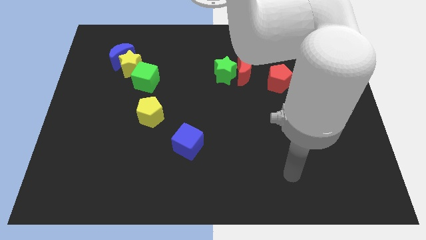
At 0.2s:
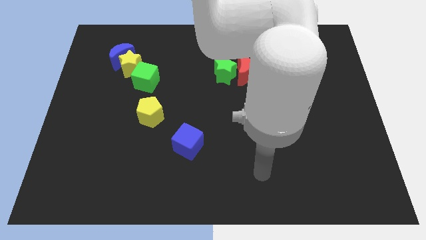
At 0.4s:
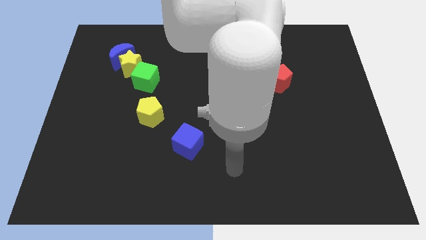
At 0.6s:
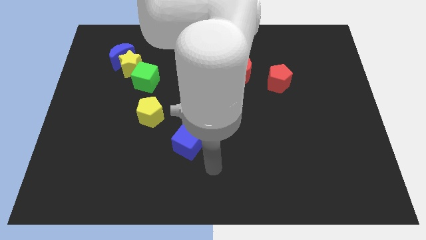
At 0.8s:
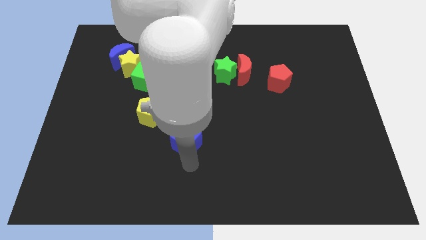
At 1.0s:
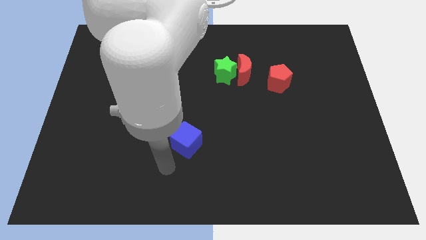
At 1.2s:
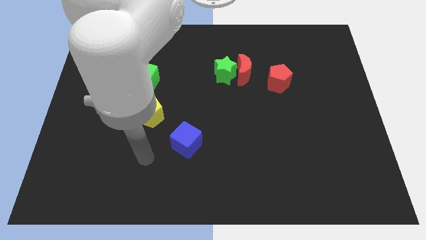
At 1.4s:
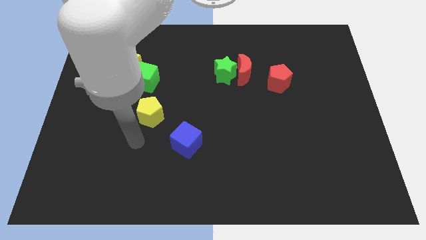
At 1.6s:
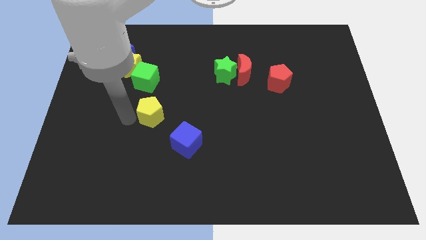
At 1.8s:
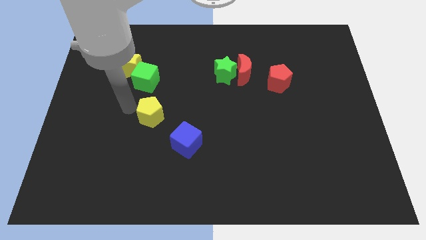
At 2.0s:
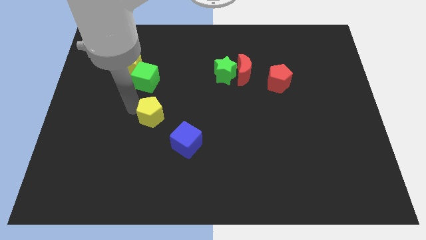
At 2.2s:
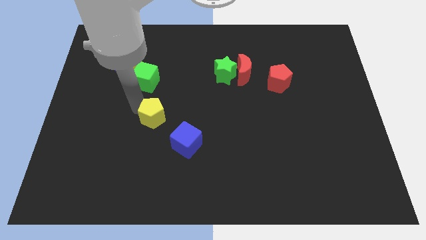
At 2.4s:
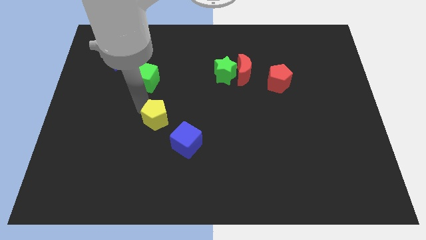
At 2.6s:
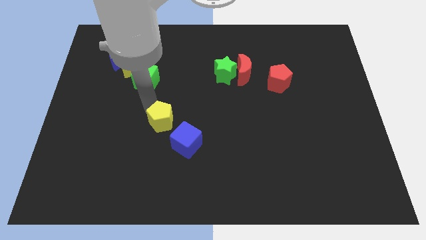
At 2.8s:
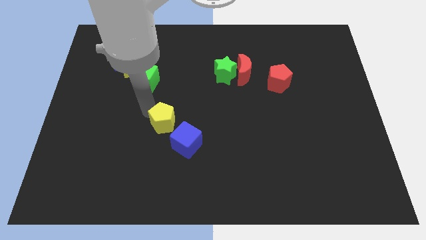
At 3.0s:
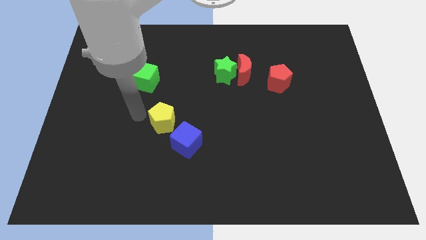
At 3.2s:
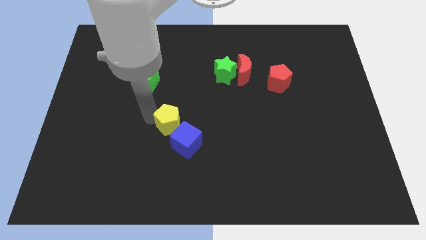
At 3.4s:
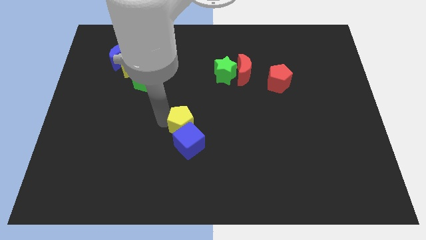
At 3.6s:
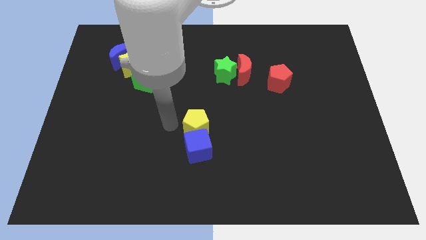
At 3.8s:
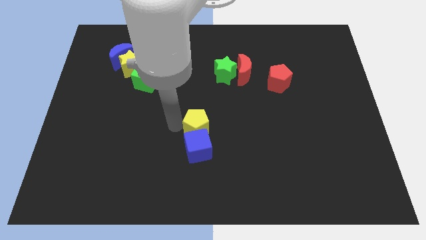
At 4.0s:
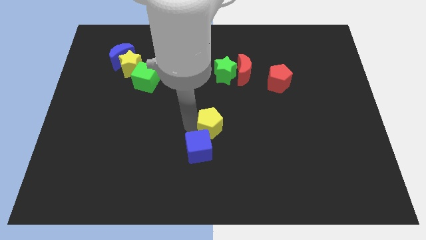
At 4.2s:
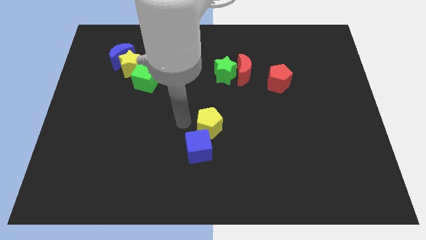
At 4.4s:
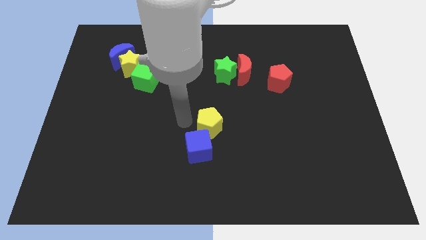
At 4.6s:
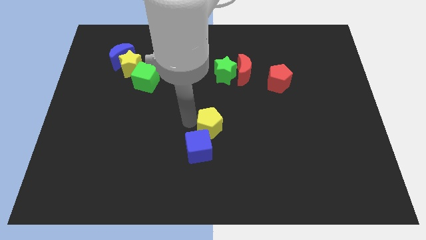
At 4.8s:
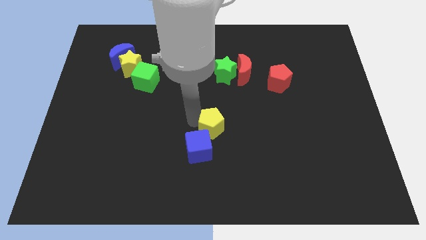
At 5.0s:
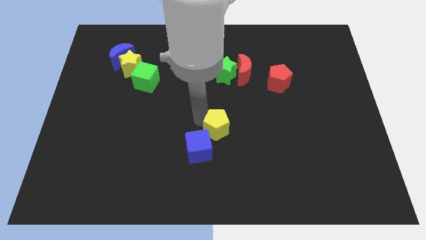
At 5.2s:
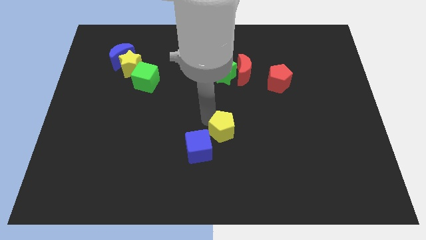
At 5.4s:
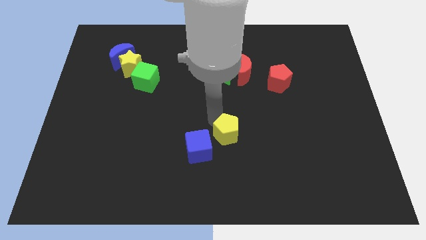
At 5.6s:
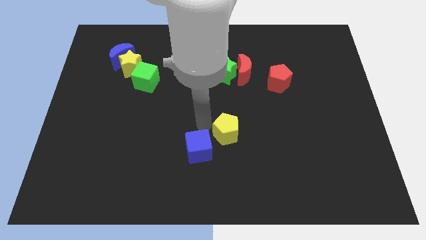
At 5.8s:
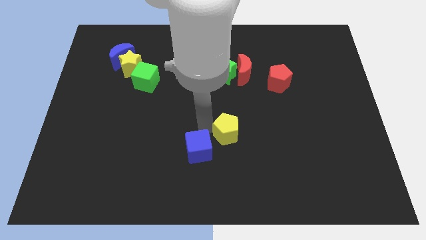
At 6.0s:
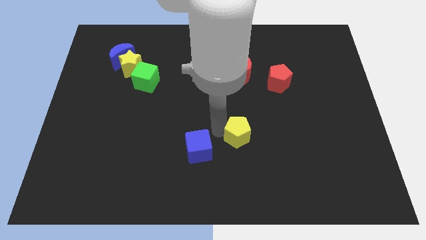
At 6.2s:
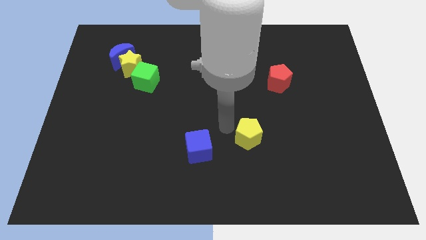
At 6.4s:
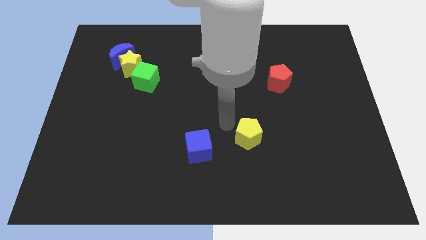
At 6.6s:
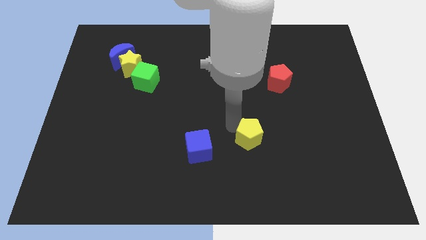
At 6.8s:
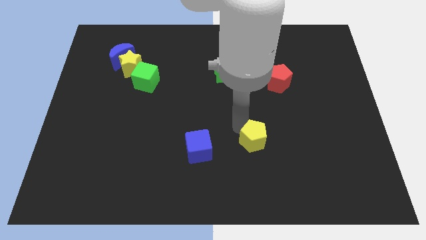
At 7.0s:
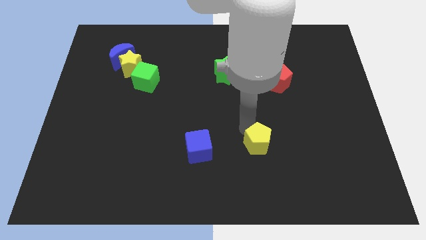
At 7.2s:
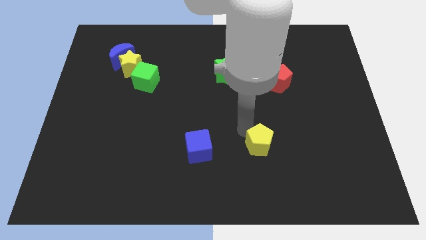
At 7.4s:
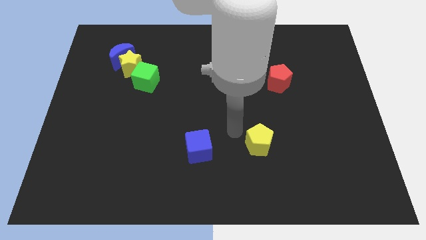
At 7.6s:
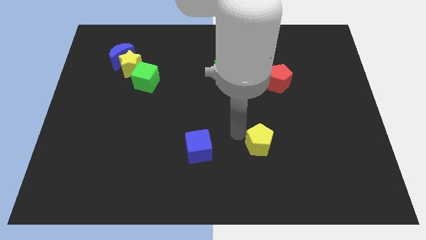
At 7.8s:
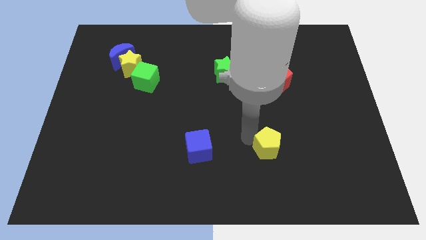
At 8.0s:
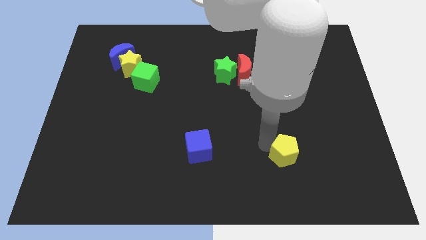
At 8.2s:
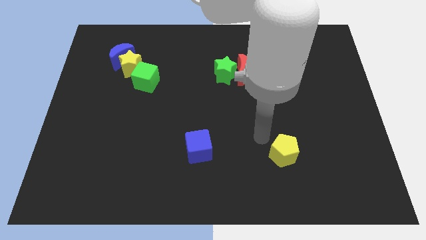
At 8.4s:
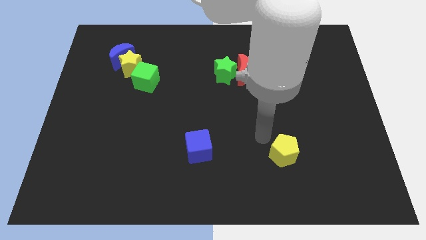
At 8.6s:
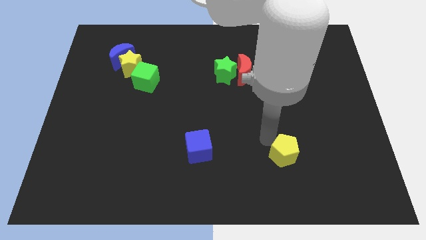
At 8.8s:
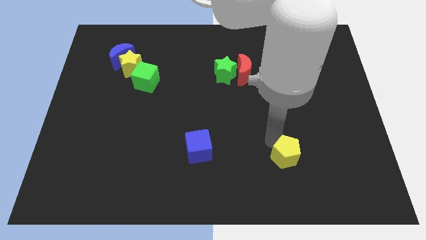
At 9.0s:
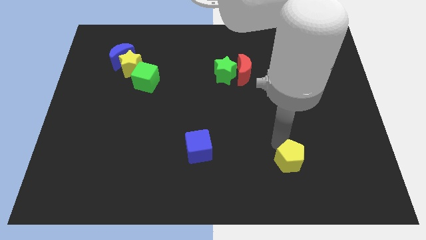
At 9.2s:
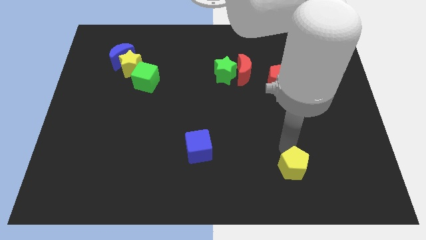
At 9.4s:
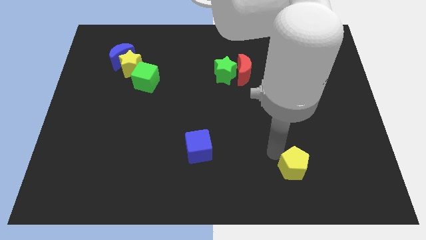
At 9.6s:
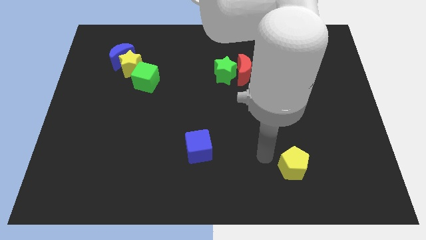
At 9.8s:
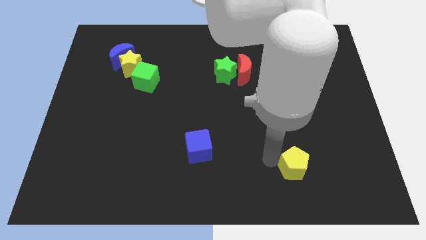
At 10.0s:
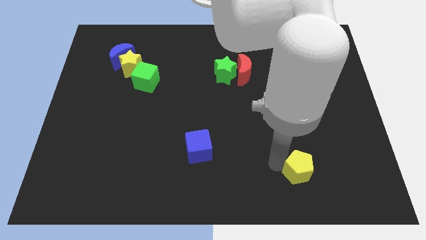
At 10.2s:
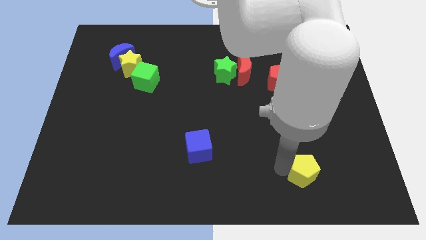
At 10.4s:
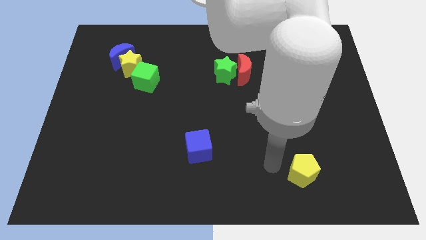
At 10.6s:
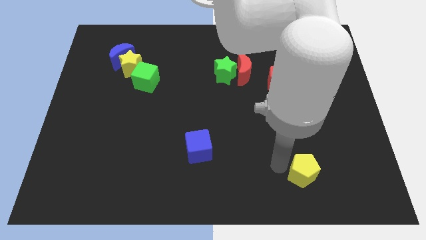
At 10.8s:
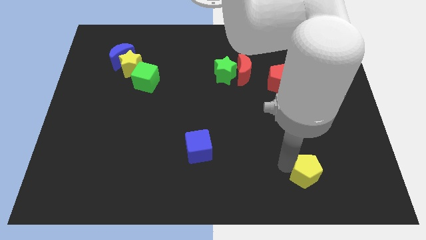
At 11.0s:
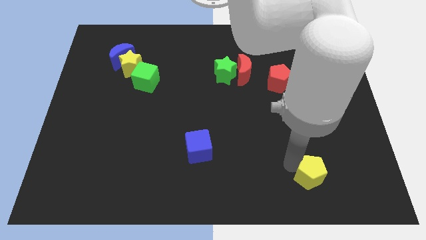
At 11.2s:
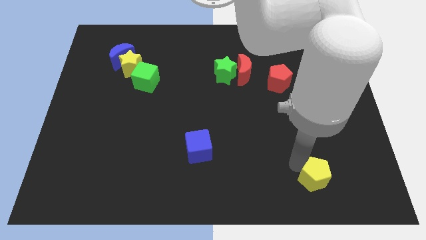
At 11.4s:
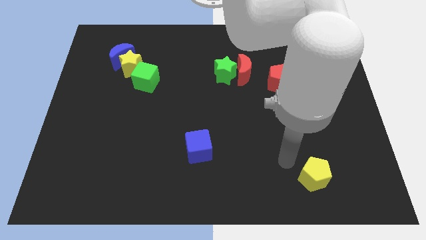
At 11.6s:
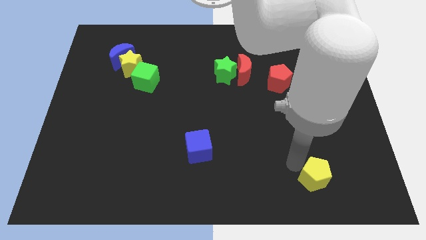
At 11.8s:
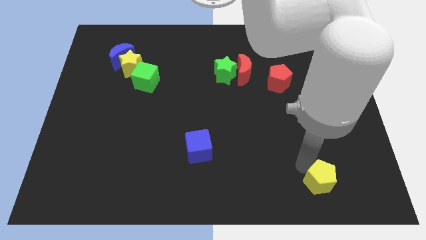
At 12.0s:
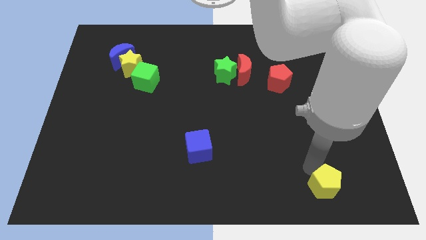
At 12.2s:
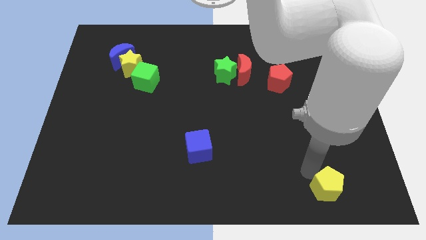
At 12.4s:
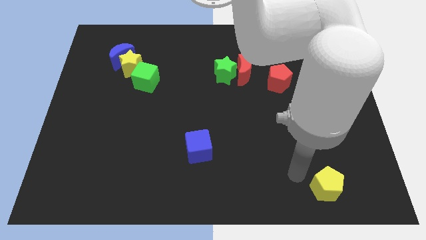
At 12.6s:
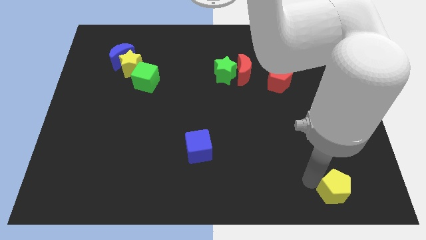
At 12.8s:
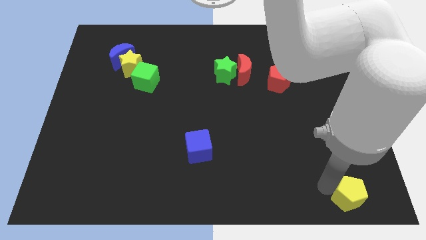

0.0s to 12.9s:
put the yellow pentagon to the bottom right corner

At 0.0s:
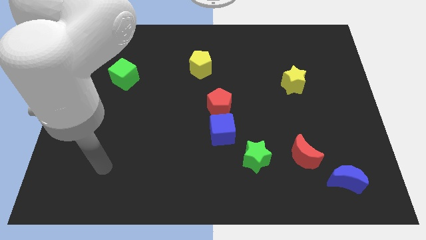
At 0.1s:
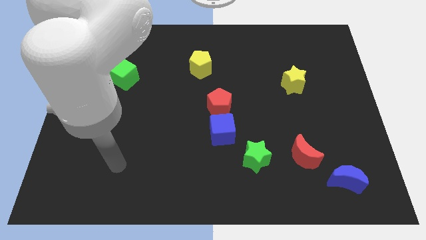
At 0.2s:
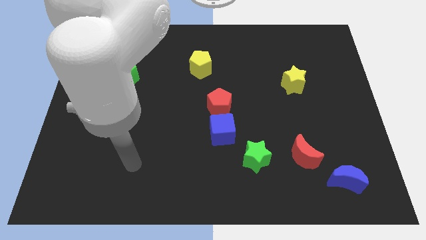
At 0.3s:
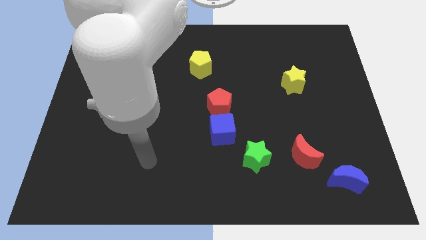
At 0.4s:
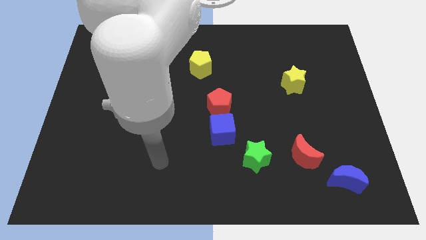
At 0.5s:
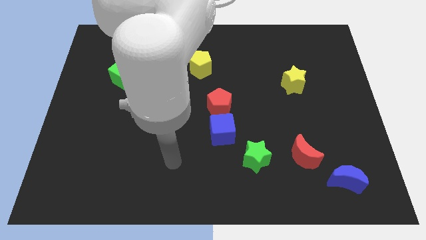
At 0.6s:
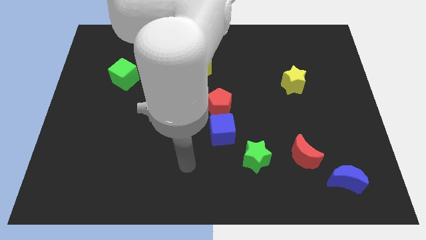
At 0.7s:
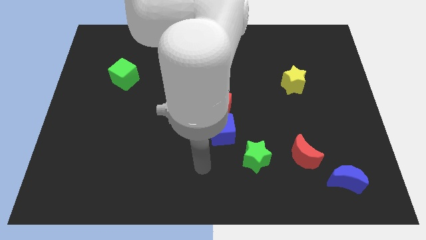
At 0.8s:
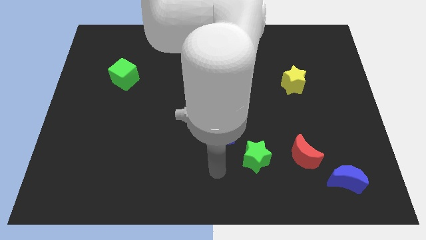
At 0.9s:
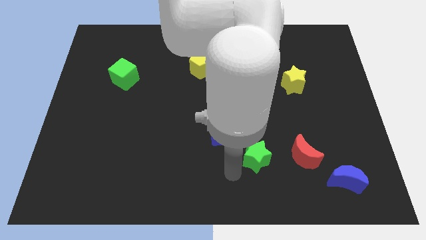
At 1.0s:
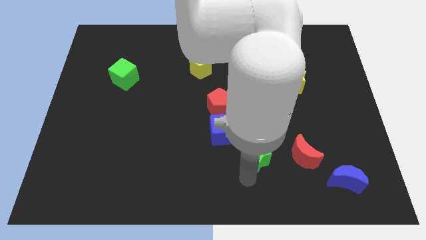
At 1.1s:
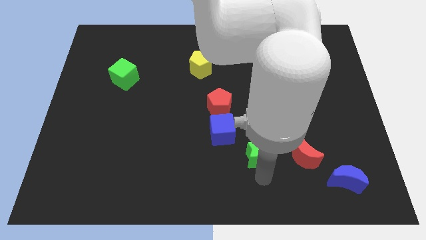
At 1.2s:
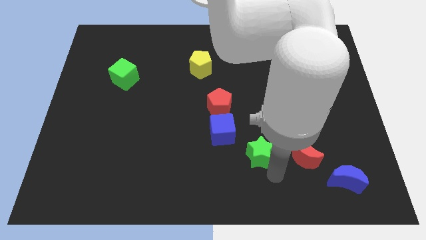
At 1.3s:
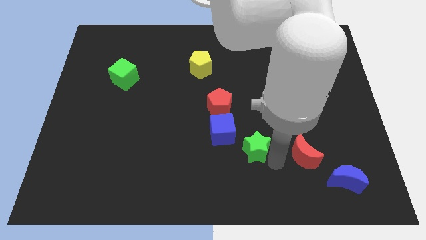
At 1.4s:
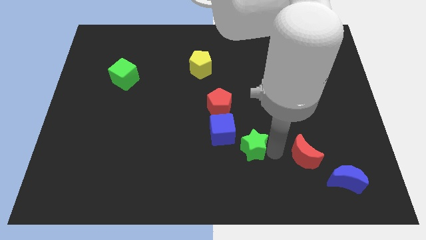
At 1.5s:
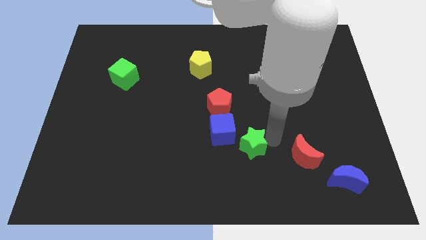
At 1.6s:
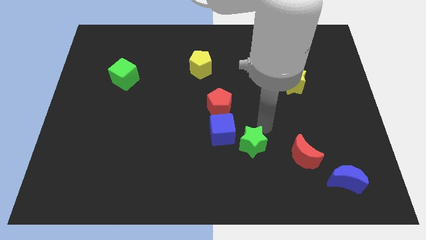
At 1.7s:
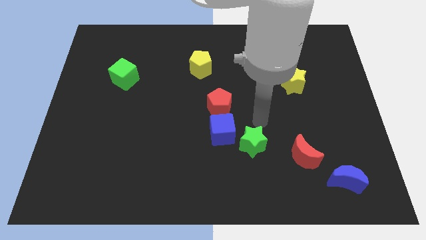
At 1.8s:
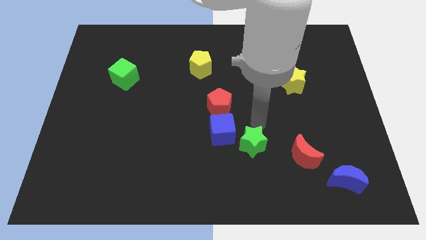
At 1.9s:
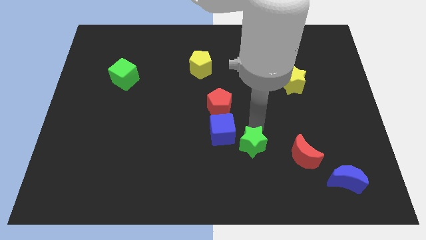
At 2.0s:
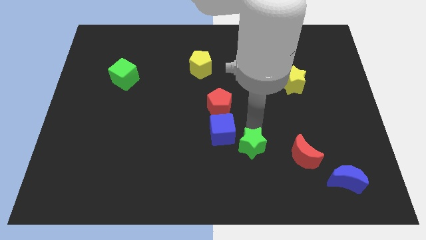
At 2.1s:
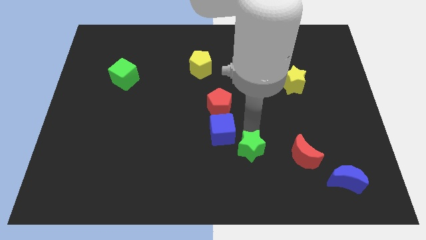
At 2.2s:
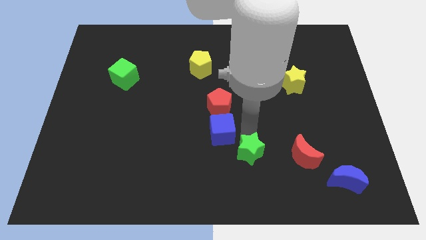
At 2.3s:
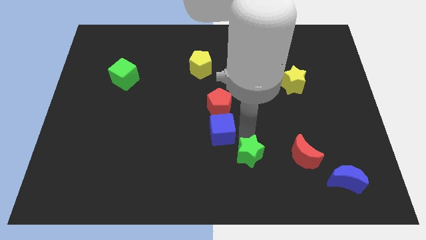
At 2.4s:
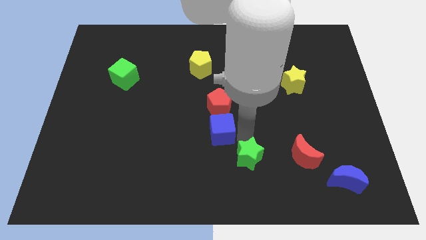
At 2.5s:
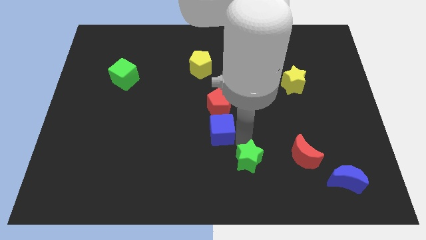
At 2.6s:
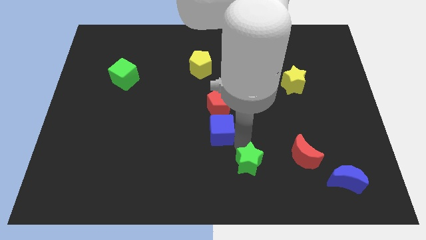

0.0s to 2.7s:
push the green star to the bottom
